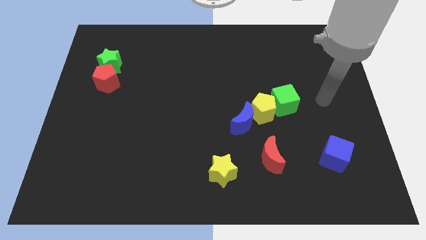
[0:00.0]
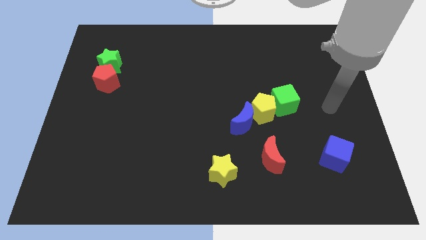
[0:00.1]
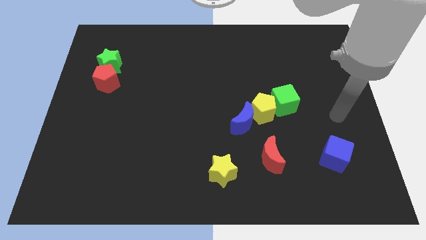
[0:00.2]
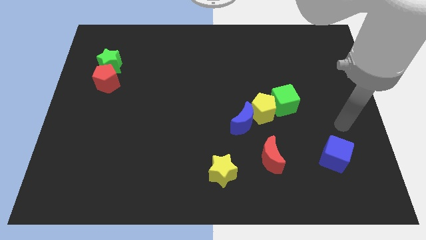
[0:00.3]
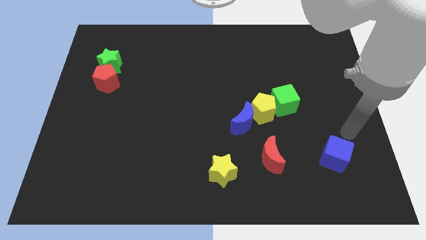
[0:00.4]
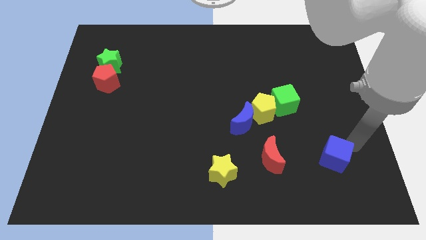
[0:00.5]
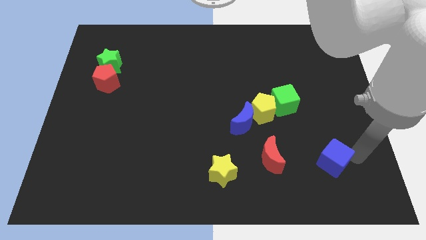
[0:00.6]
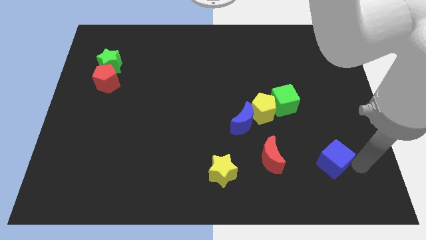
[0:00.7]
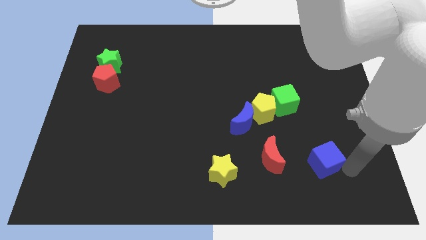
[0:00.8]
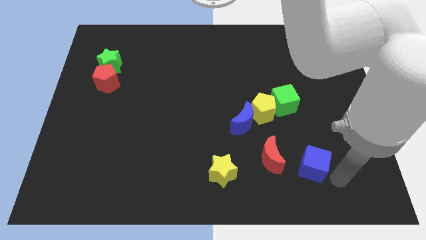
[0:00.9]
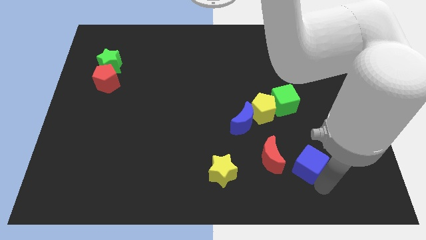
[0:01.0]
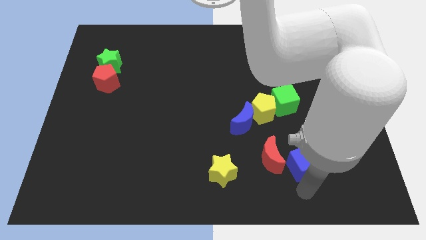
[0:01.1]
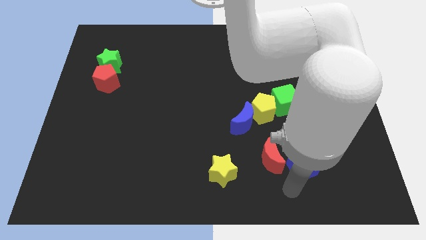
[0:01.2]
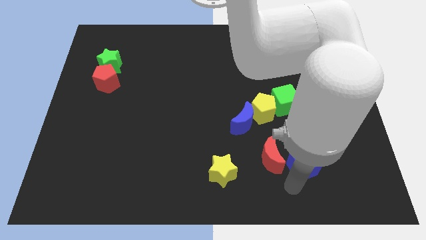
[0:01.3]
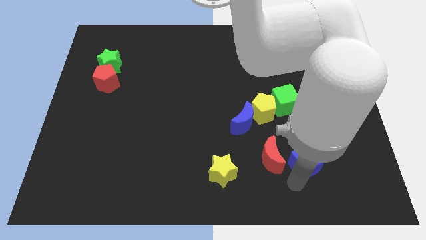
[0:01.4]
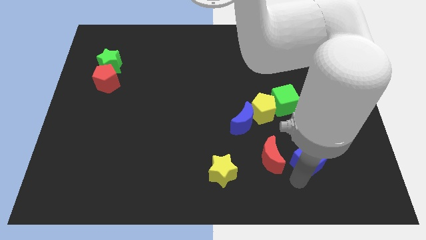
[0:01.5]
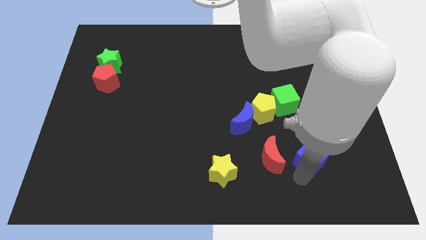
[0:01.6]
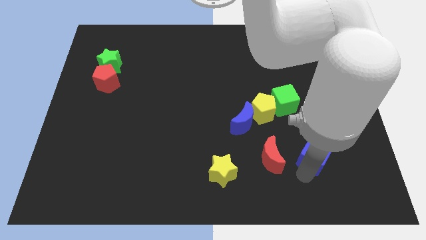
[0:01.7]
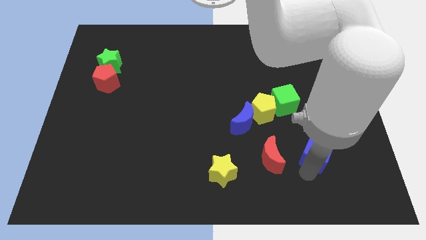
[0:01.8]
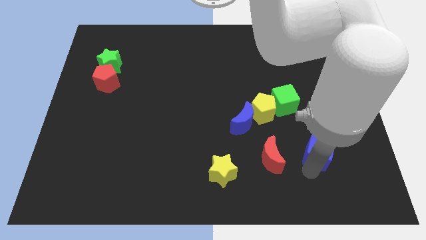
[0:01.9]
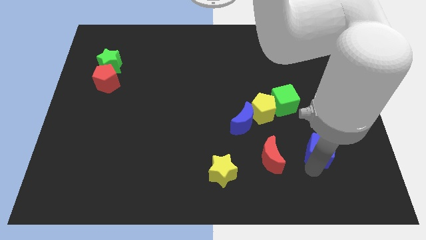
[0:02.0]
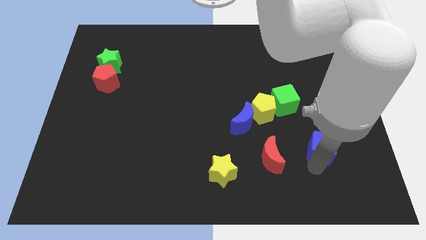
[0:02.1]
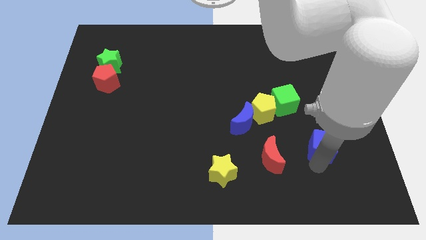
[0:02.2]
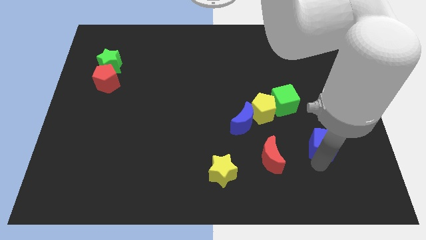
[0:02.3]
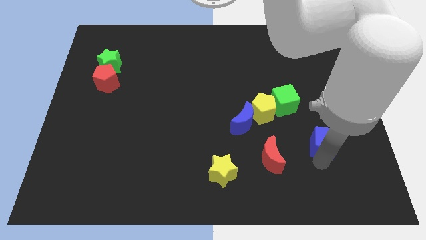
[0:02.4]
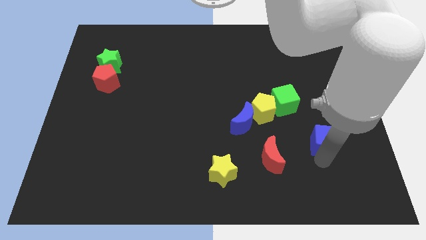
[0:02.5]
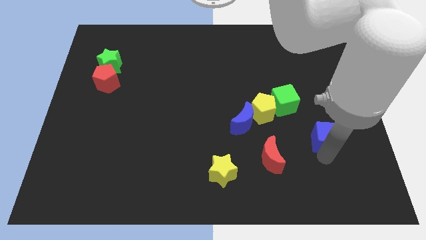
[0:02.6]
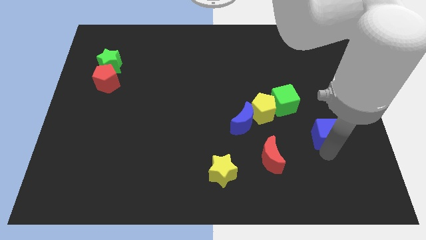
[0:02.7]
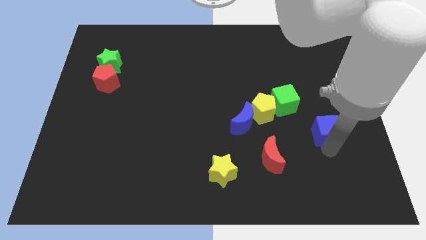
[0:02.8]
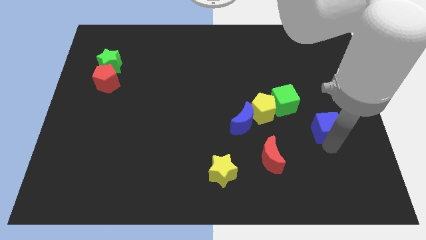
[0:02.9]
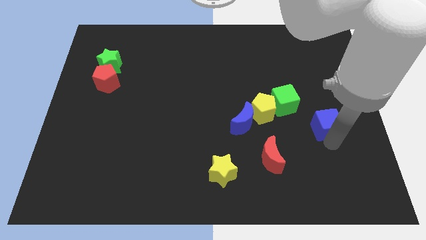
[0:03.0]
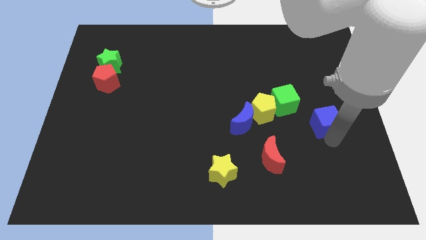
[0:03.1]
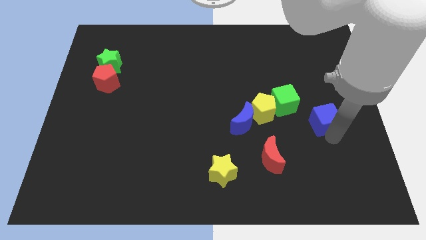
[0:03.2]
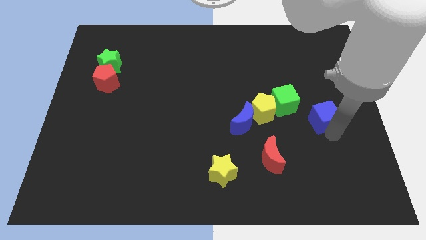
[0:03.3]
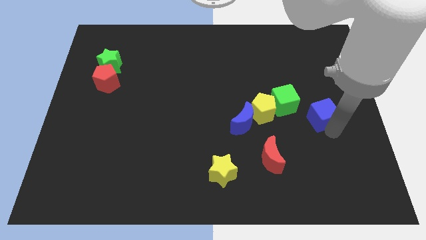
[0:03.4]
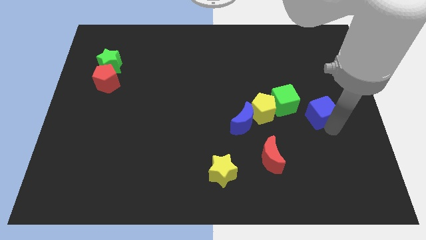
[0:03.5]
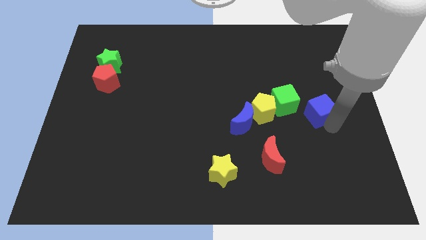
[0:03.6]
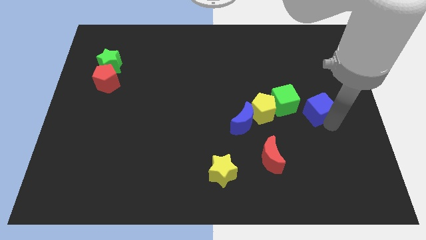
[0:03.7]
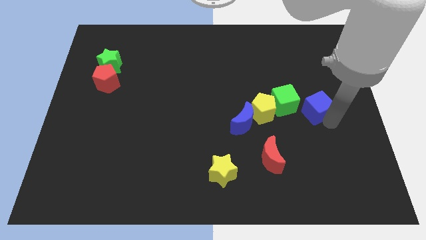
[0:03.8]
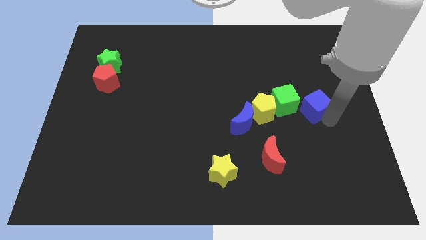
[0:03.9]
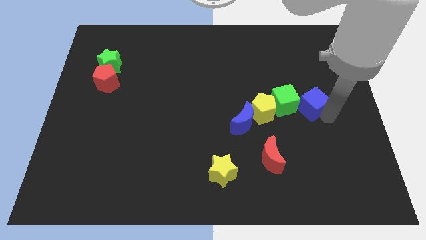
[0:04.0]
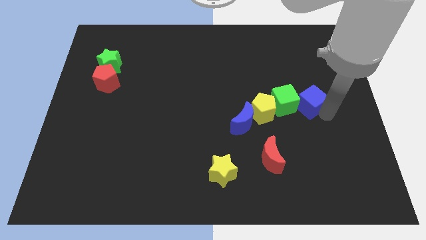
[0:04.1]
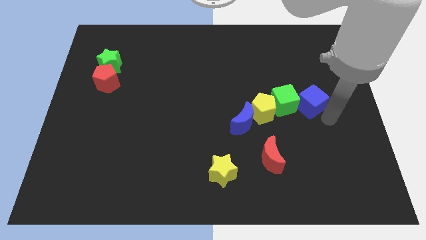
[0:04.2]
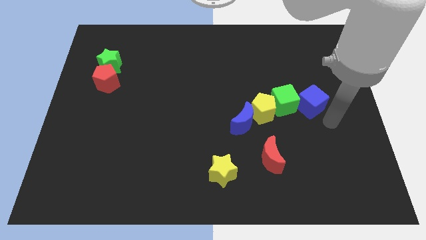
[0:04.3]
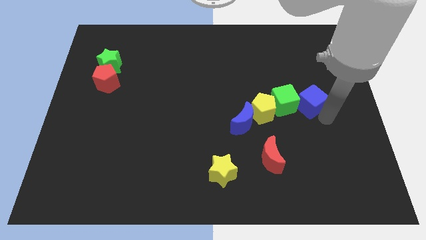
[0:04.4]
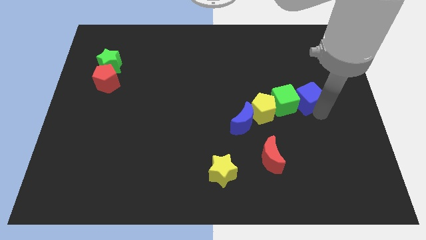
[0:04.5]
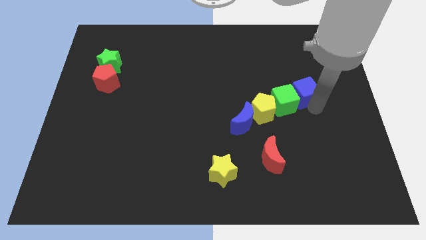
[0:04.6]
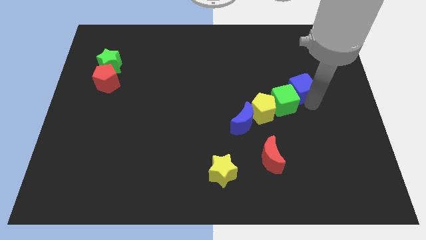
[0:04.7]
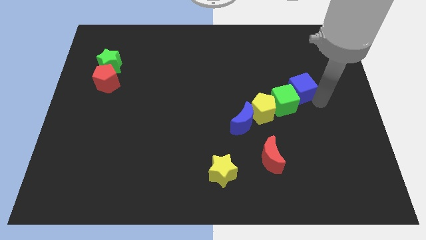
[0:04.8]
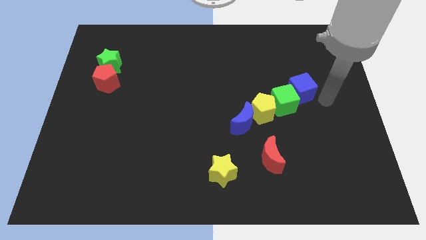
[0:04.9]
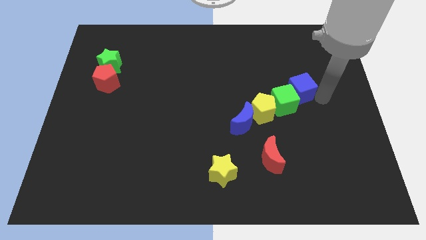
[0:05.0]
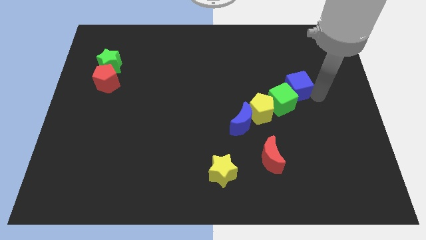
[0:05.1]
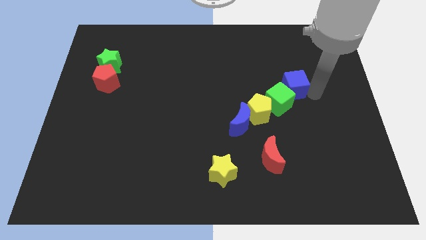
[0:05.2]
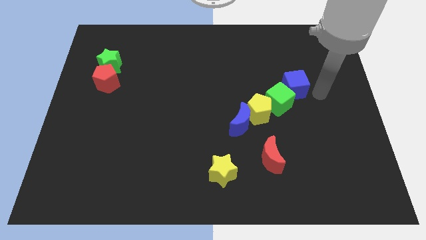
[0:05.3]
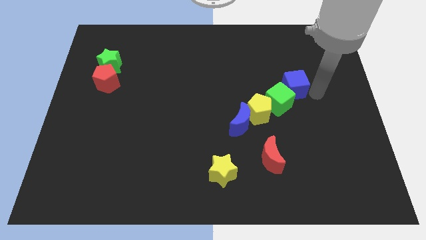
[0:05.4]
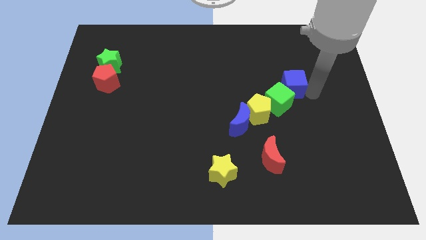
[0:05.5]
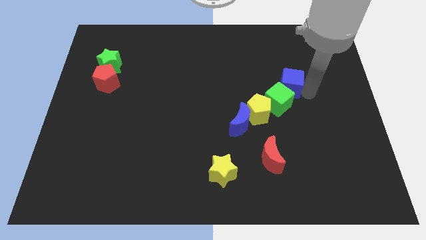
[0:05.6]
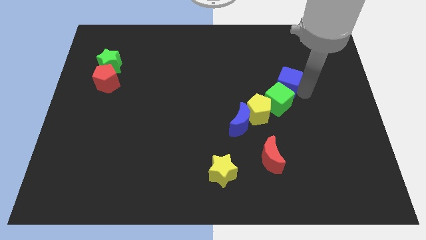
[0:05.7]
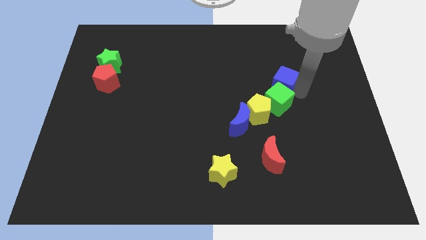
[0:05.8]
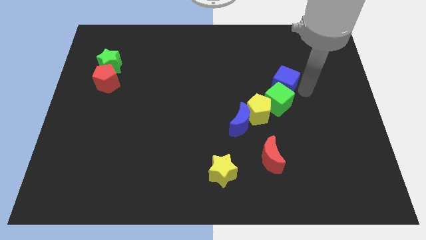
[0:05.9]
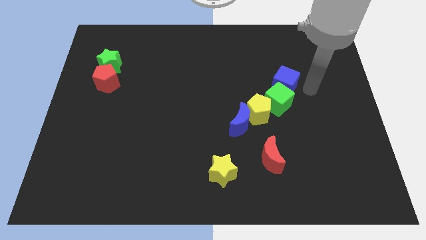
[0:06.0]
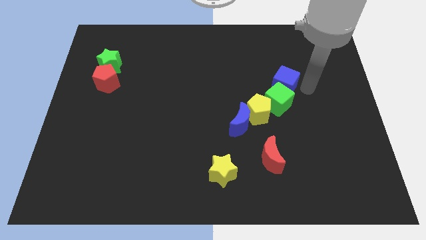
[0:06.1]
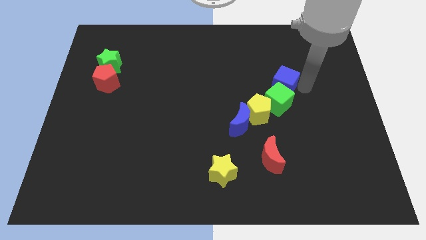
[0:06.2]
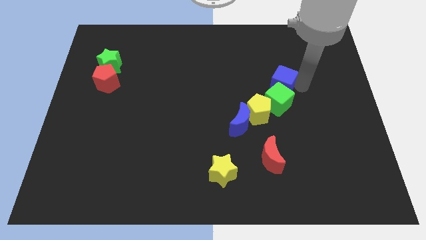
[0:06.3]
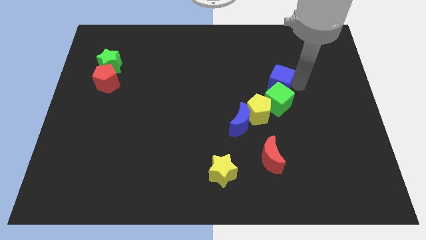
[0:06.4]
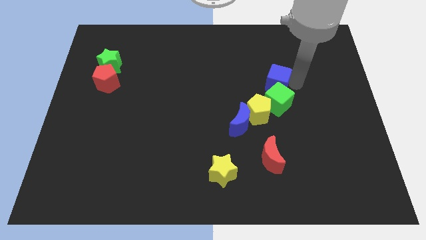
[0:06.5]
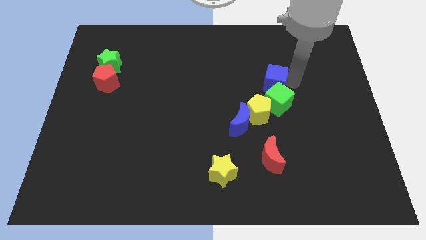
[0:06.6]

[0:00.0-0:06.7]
slide the blue cube above the yellow pentagon

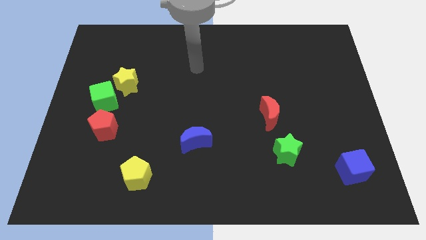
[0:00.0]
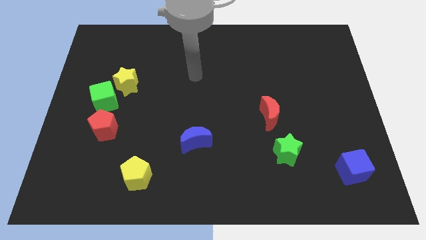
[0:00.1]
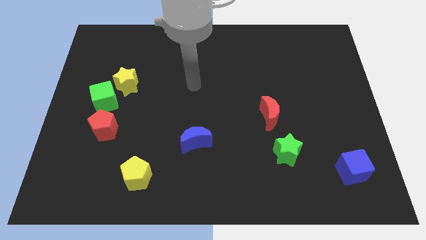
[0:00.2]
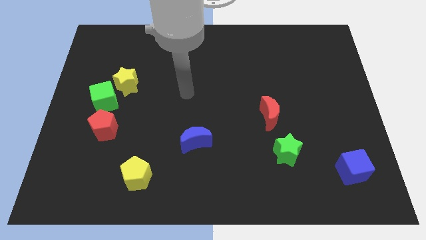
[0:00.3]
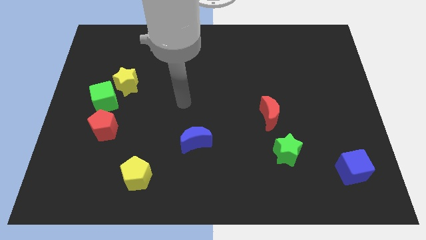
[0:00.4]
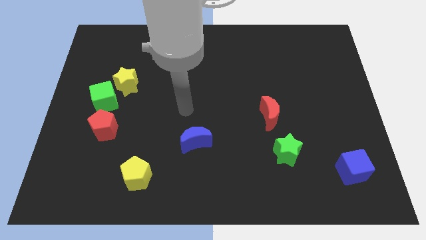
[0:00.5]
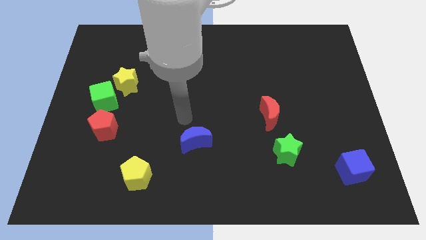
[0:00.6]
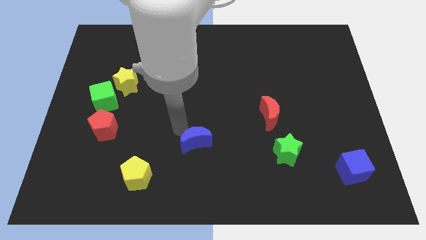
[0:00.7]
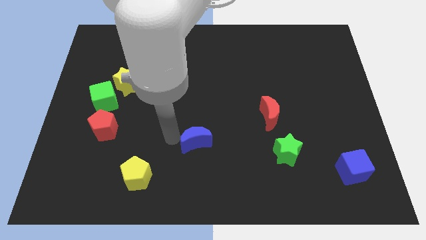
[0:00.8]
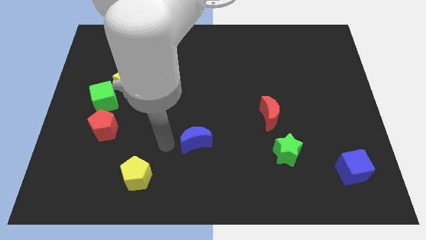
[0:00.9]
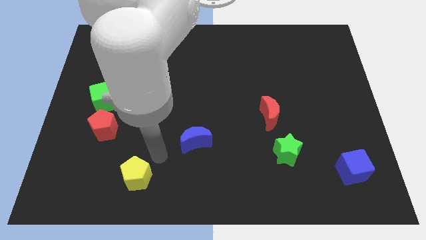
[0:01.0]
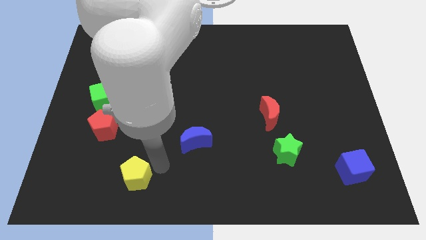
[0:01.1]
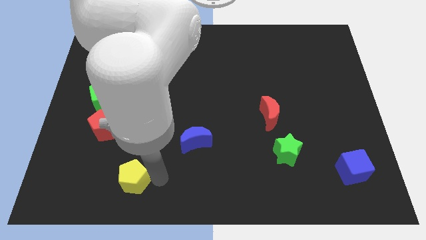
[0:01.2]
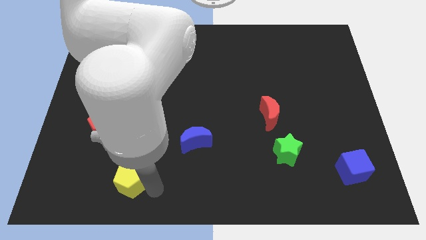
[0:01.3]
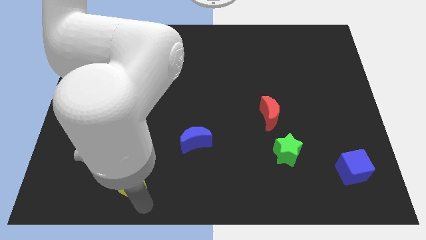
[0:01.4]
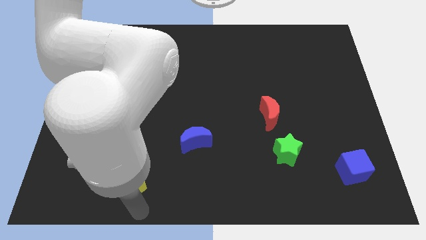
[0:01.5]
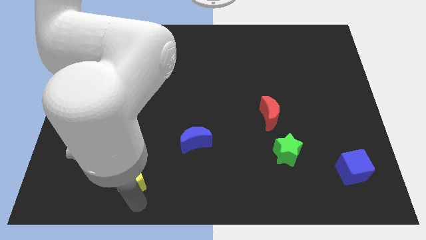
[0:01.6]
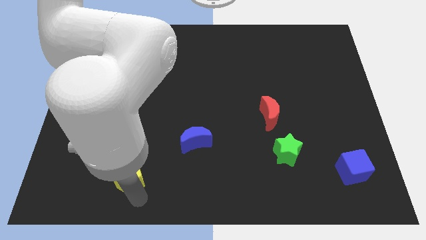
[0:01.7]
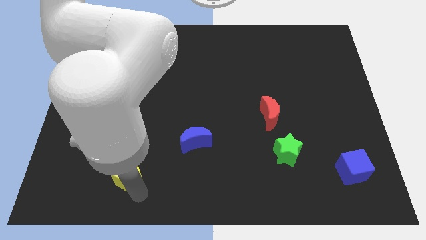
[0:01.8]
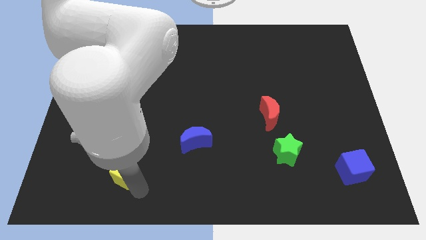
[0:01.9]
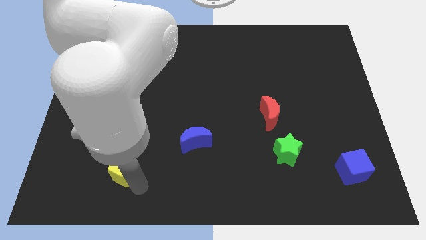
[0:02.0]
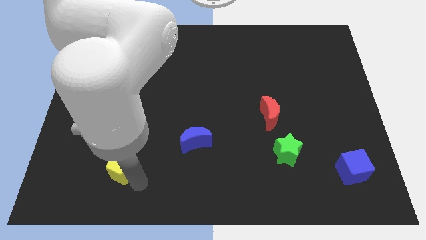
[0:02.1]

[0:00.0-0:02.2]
push the yellow pentagon to the bottom right side of the red pentagon
